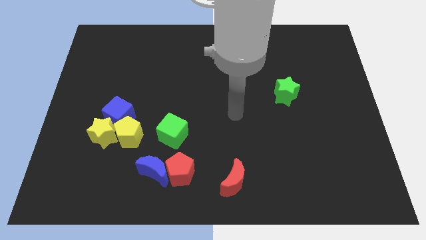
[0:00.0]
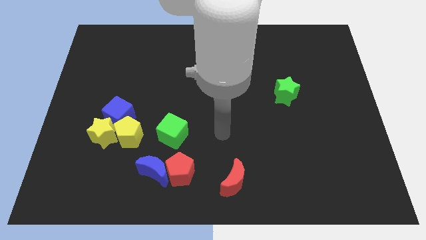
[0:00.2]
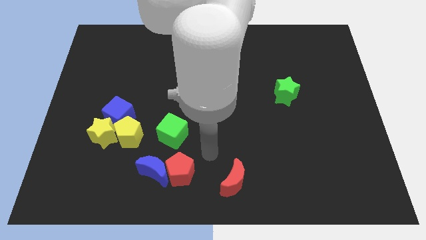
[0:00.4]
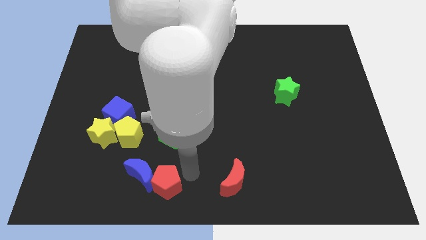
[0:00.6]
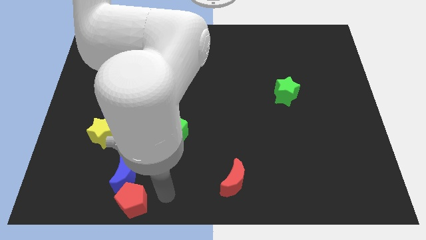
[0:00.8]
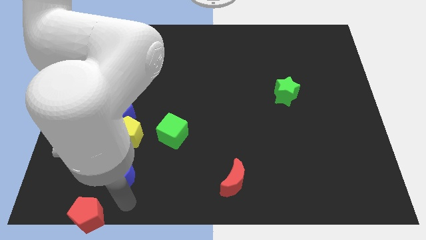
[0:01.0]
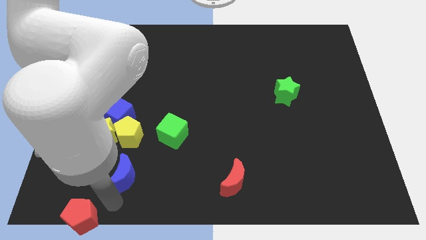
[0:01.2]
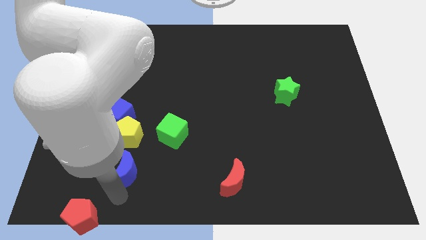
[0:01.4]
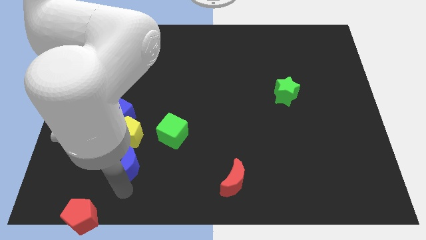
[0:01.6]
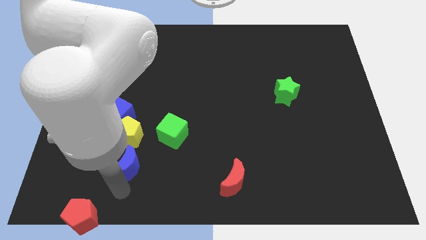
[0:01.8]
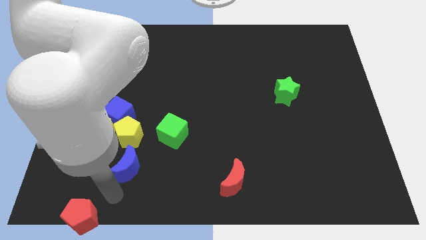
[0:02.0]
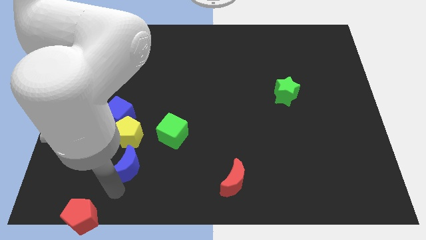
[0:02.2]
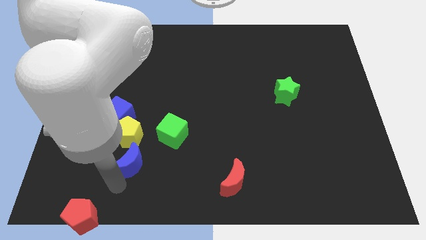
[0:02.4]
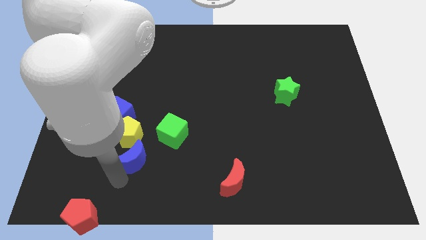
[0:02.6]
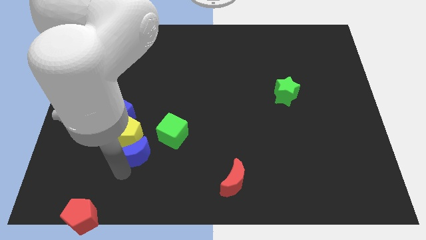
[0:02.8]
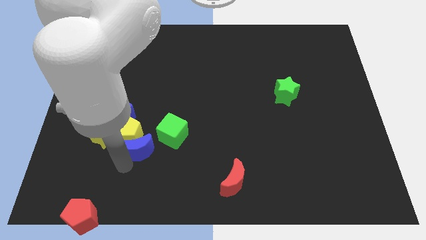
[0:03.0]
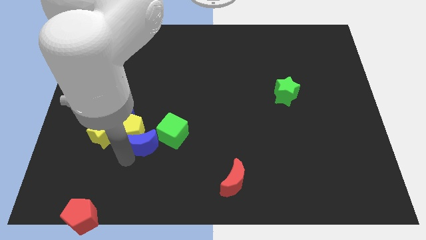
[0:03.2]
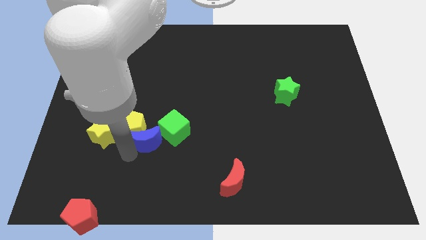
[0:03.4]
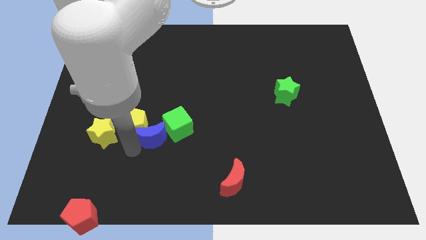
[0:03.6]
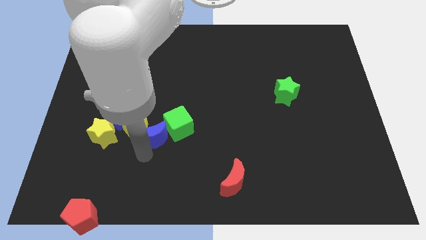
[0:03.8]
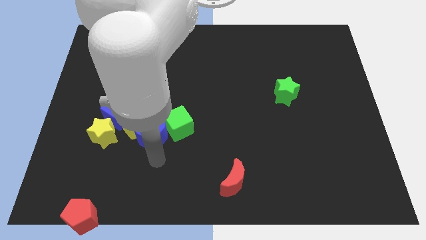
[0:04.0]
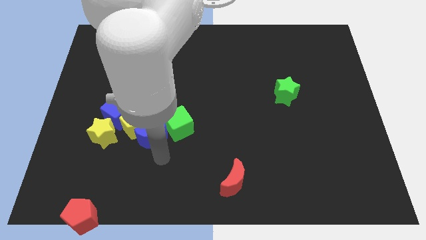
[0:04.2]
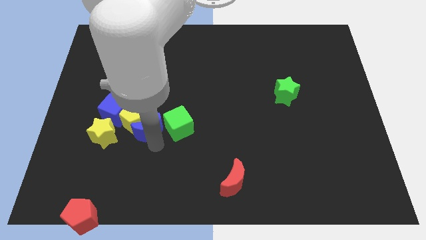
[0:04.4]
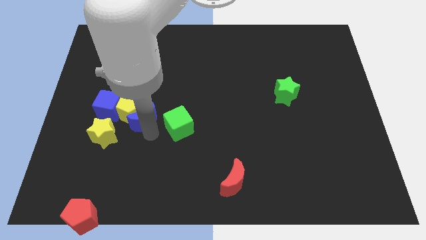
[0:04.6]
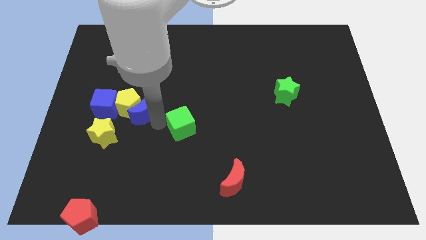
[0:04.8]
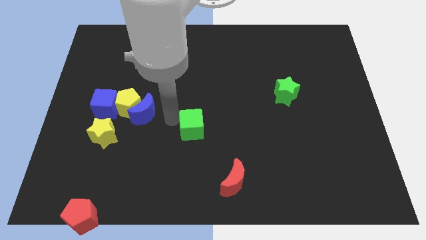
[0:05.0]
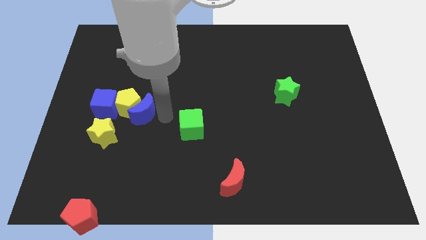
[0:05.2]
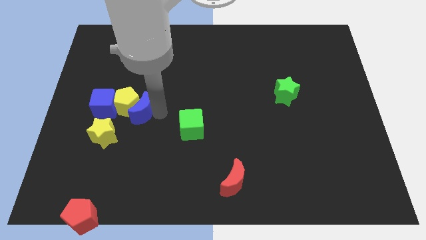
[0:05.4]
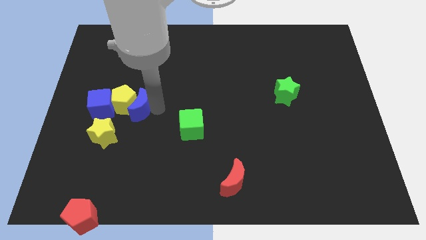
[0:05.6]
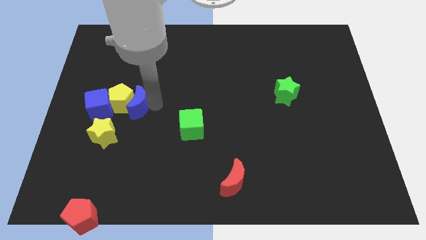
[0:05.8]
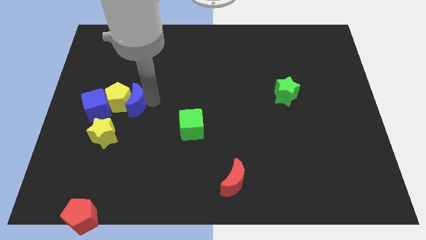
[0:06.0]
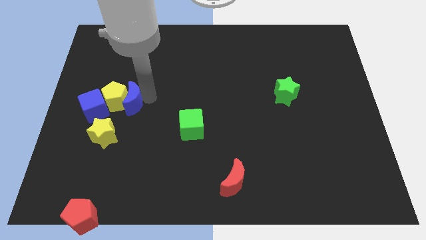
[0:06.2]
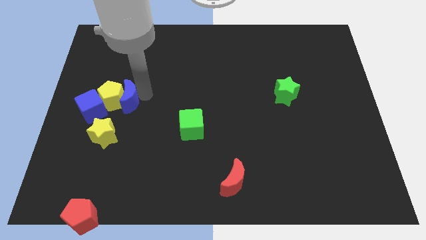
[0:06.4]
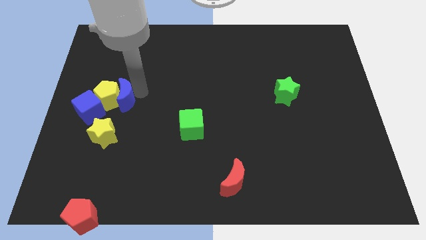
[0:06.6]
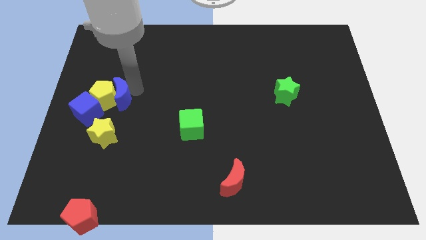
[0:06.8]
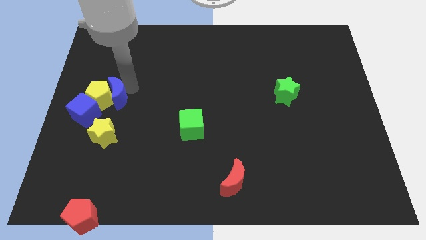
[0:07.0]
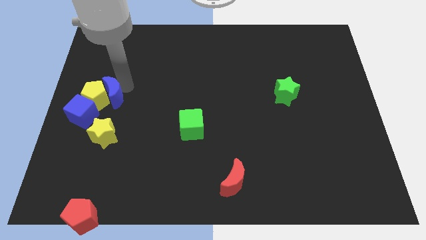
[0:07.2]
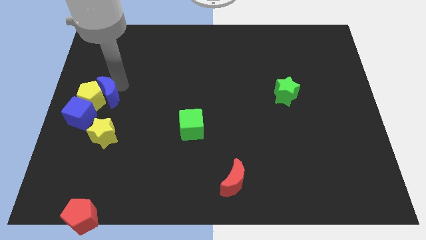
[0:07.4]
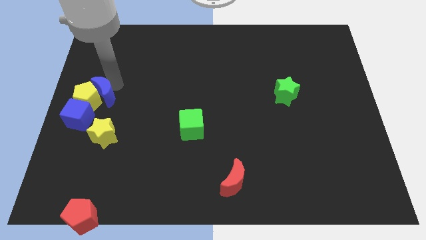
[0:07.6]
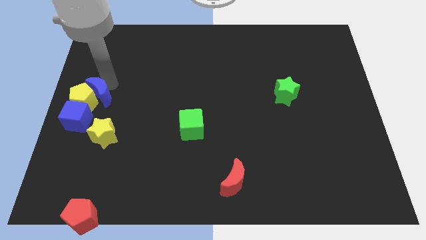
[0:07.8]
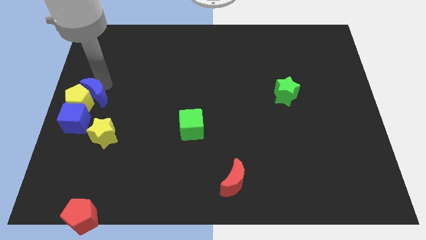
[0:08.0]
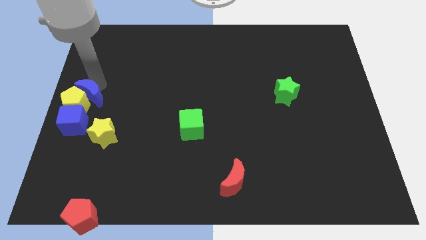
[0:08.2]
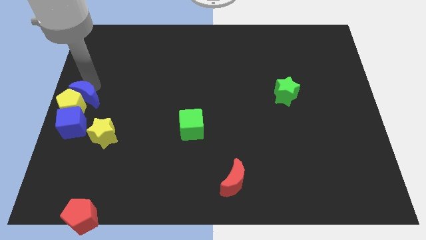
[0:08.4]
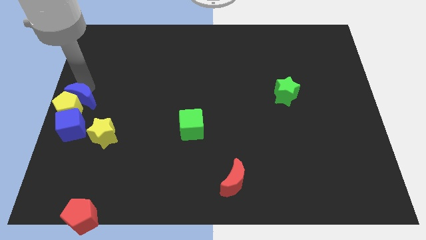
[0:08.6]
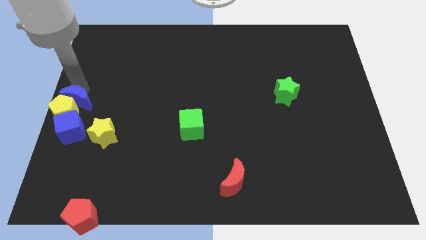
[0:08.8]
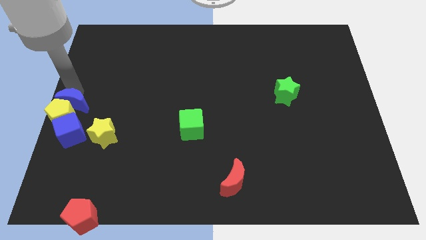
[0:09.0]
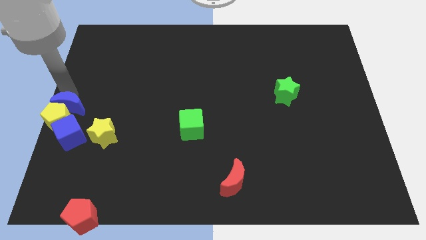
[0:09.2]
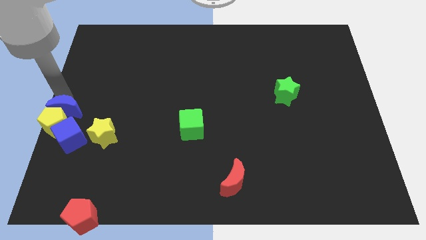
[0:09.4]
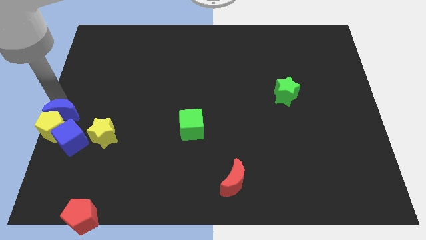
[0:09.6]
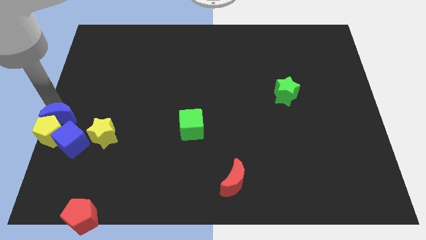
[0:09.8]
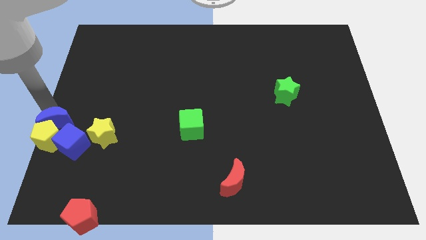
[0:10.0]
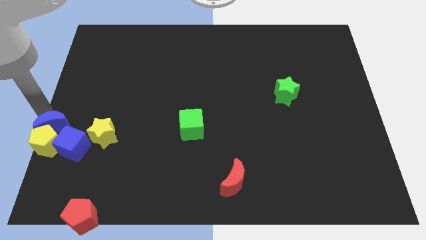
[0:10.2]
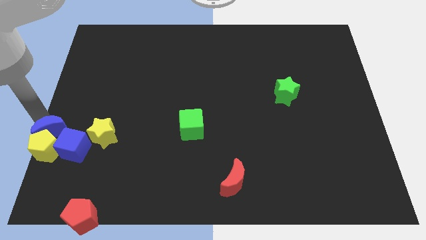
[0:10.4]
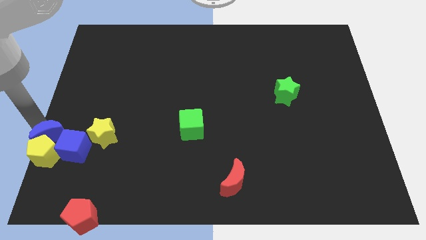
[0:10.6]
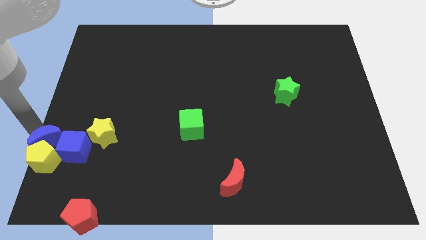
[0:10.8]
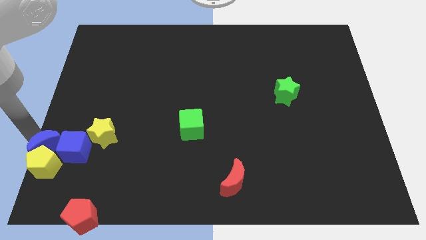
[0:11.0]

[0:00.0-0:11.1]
put the blue moon towards the blue cube
